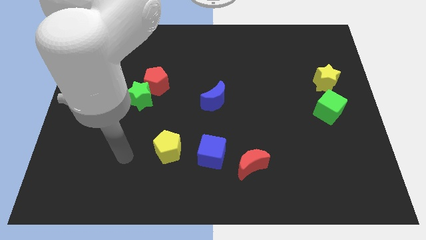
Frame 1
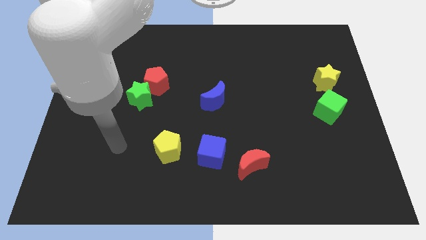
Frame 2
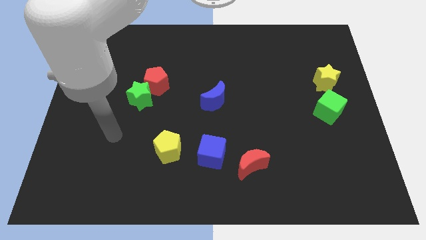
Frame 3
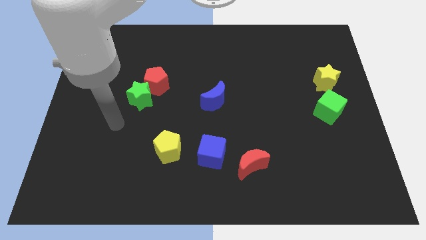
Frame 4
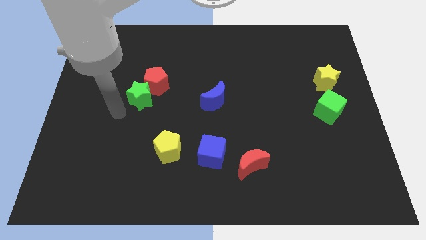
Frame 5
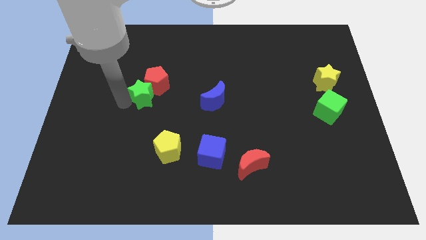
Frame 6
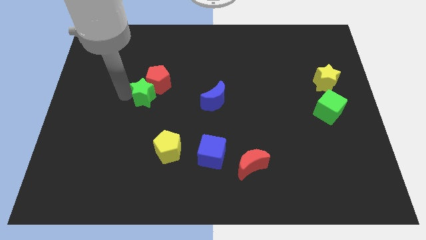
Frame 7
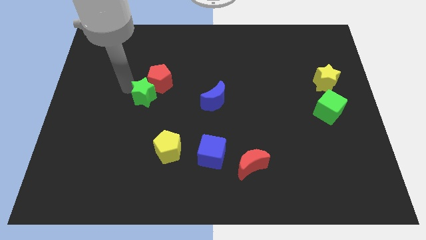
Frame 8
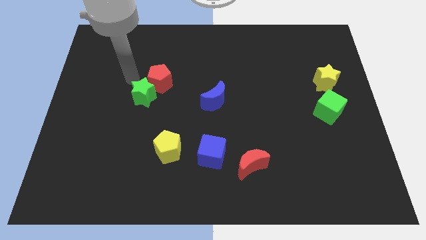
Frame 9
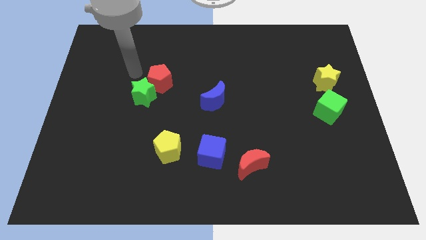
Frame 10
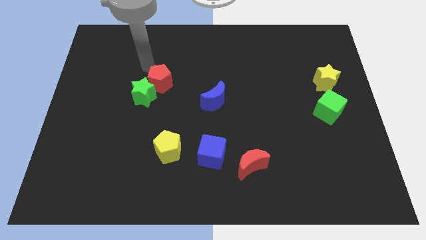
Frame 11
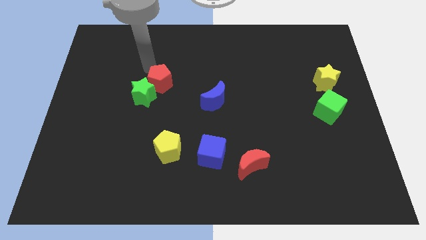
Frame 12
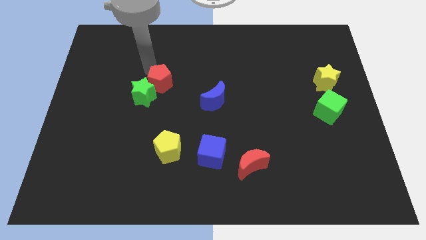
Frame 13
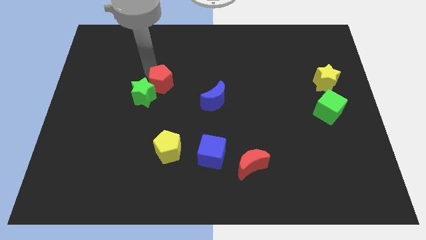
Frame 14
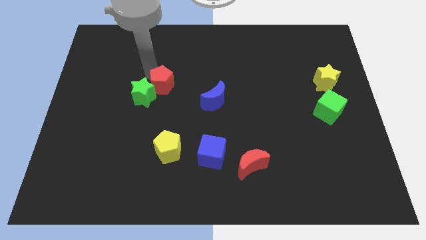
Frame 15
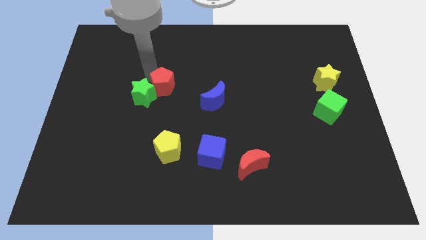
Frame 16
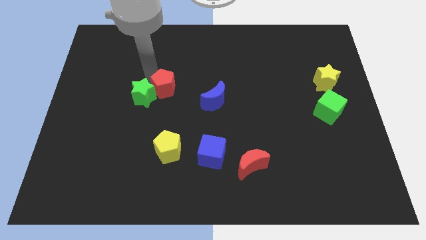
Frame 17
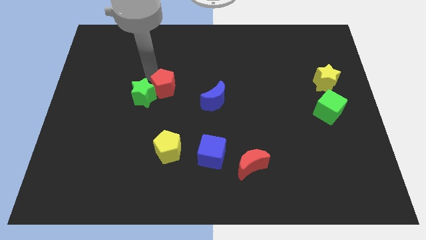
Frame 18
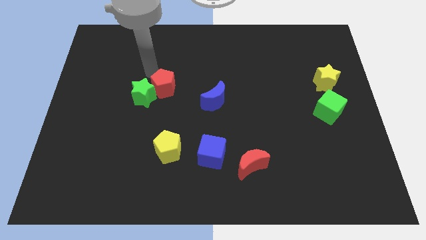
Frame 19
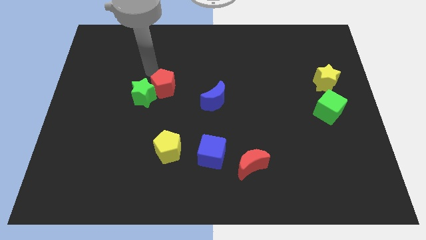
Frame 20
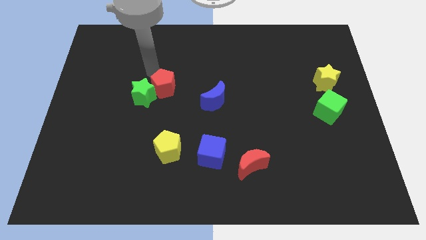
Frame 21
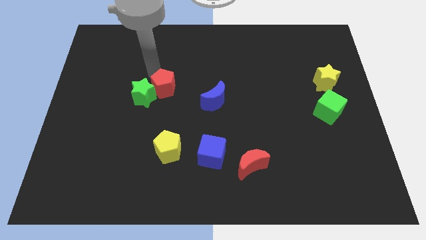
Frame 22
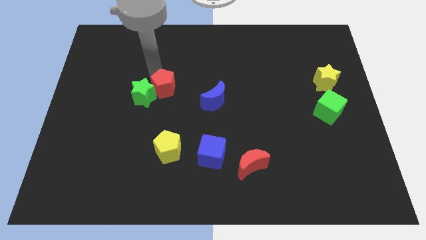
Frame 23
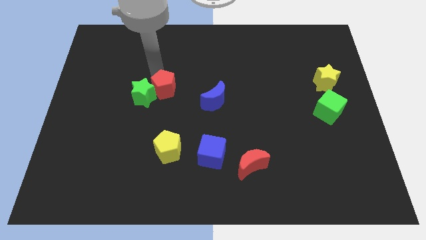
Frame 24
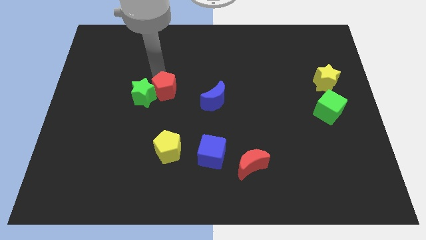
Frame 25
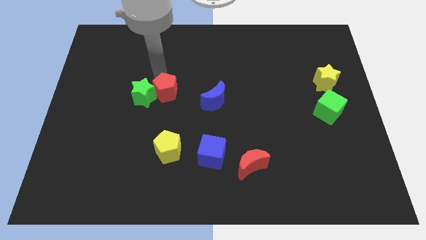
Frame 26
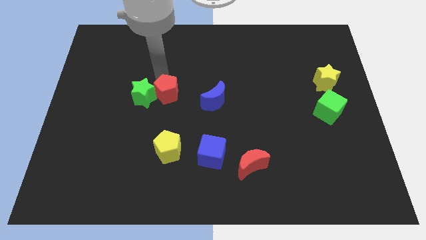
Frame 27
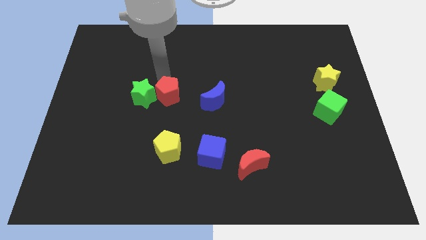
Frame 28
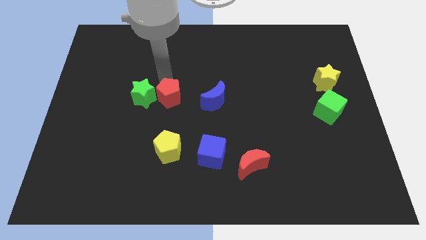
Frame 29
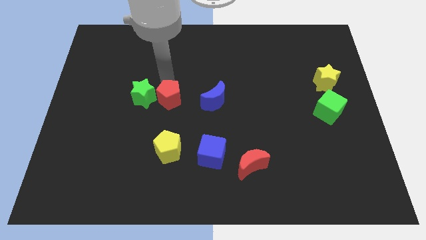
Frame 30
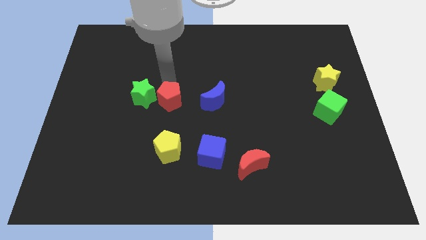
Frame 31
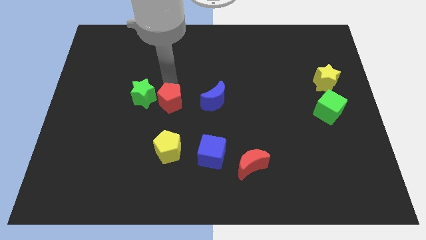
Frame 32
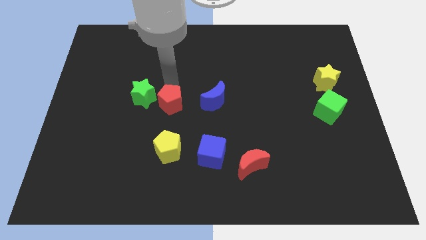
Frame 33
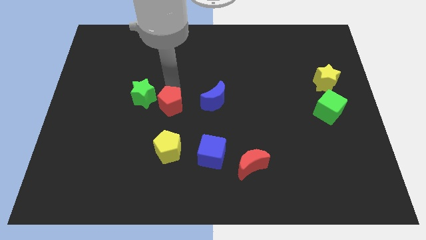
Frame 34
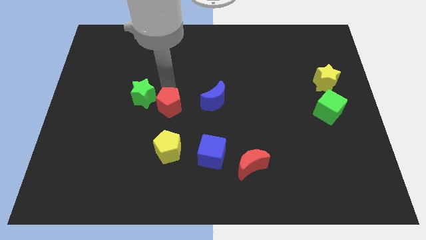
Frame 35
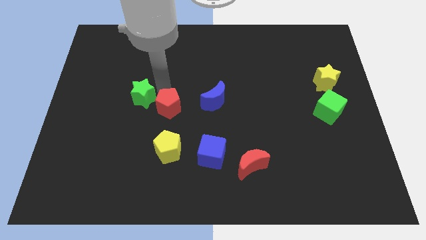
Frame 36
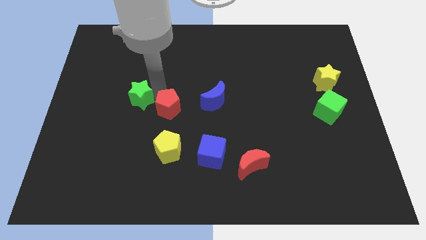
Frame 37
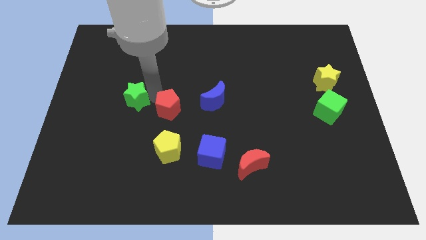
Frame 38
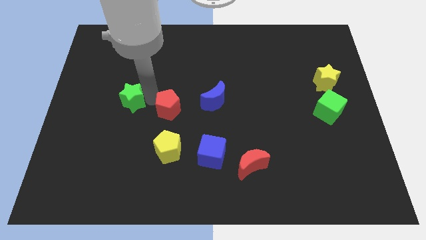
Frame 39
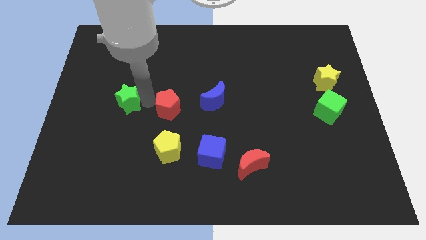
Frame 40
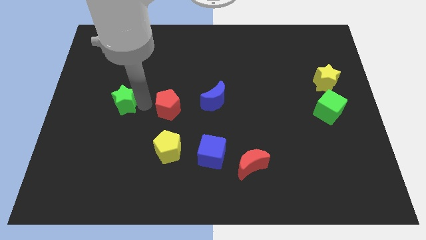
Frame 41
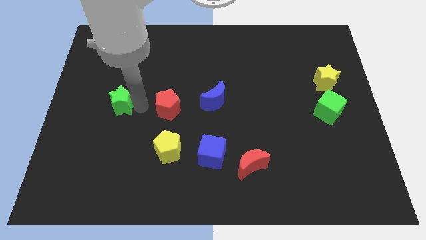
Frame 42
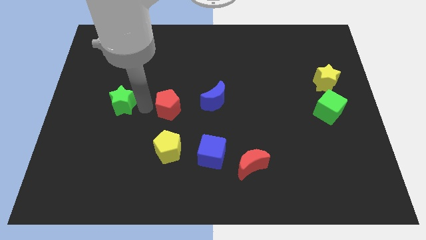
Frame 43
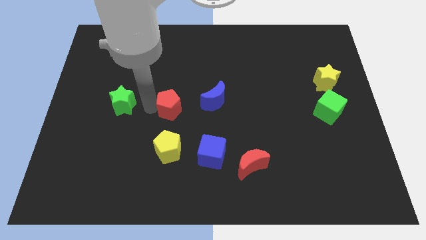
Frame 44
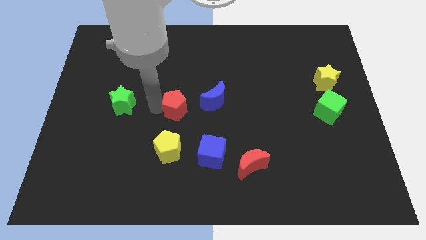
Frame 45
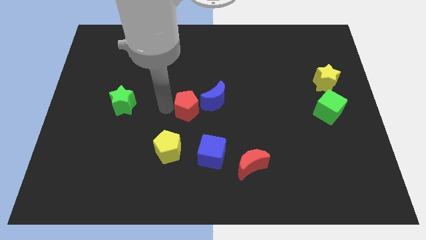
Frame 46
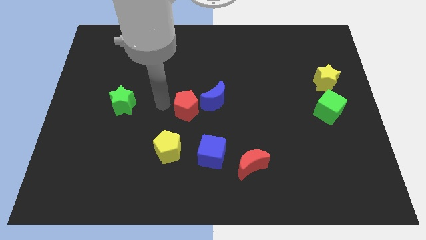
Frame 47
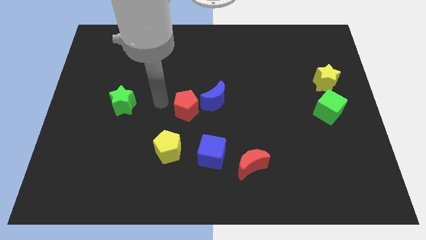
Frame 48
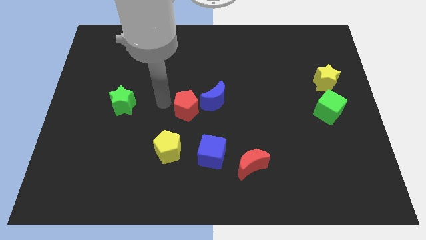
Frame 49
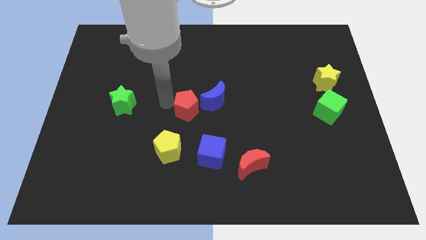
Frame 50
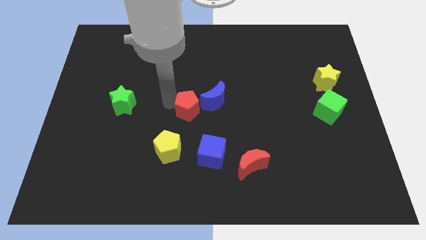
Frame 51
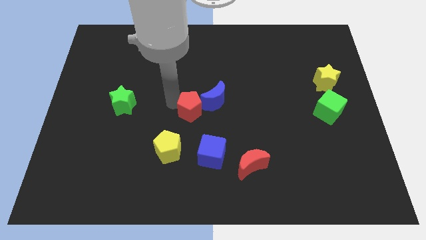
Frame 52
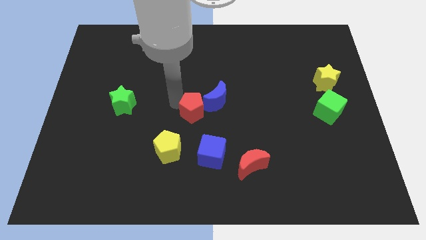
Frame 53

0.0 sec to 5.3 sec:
move the red pentagon above the blue cube

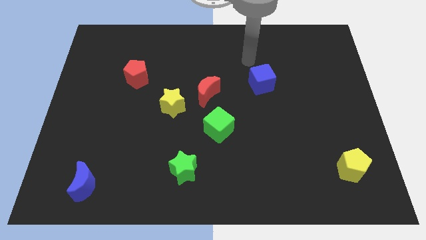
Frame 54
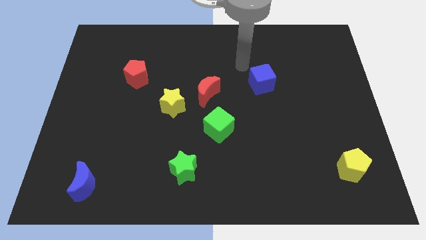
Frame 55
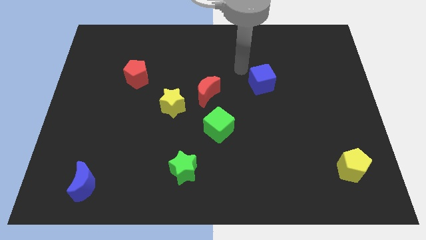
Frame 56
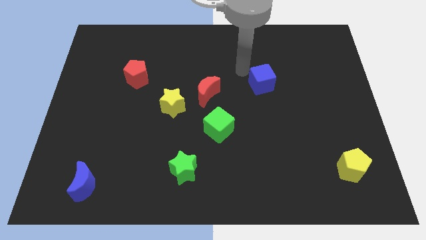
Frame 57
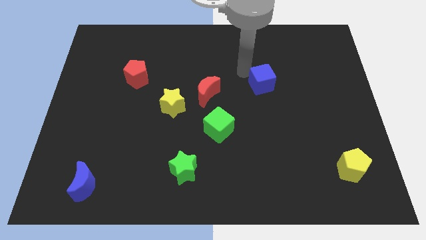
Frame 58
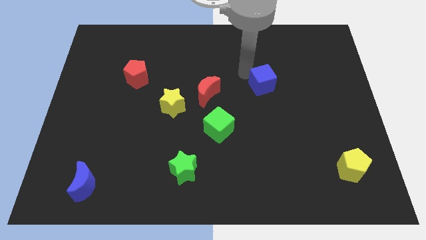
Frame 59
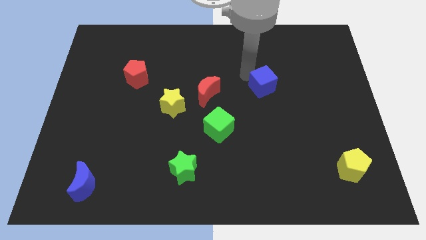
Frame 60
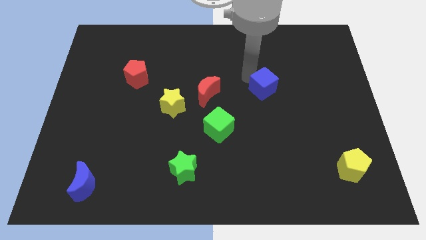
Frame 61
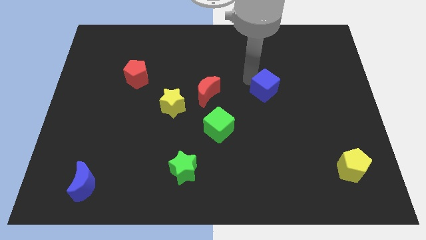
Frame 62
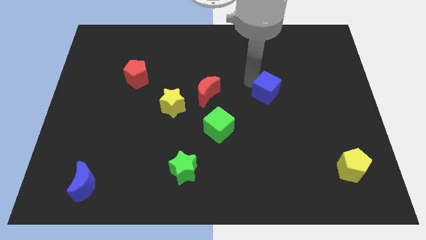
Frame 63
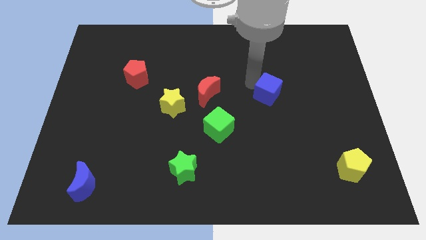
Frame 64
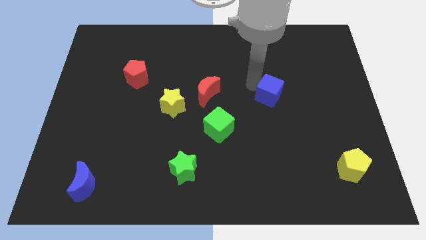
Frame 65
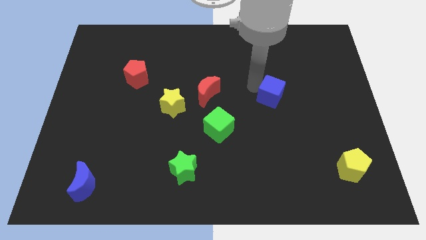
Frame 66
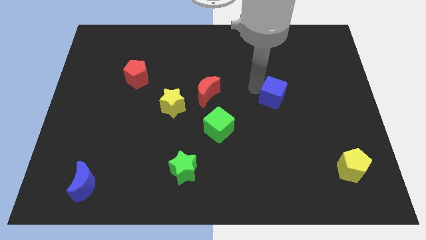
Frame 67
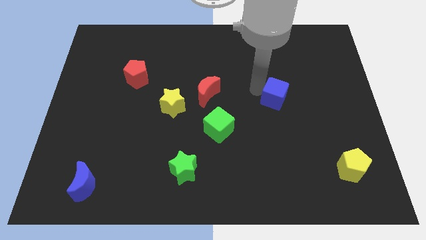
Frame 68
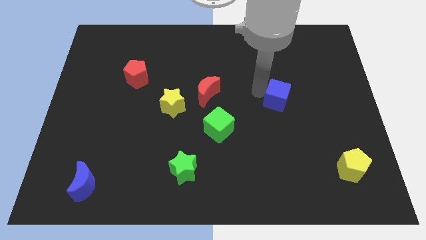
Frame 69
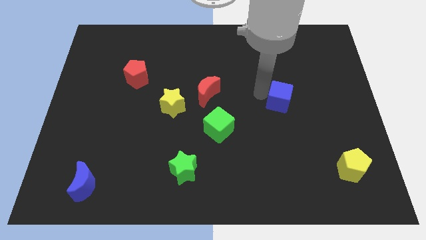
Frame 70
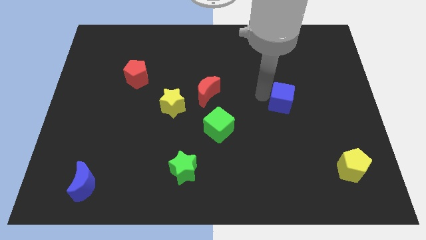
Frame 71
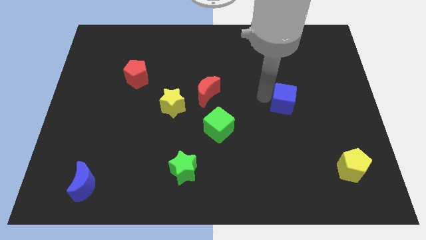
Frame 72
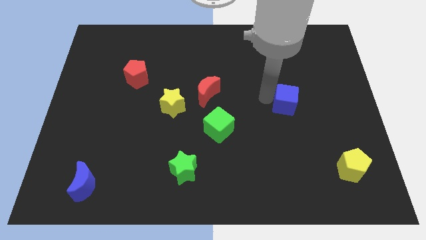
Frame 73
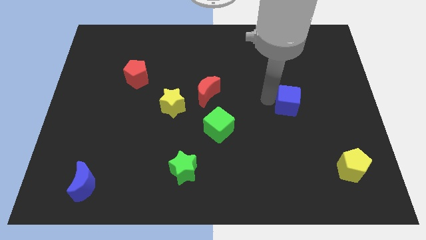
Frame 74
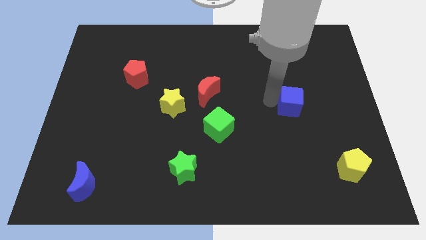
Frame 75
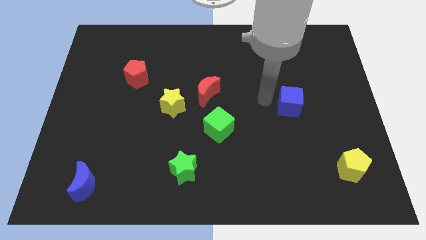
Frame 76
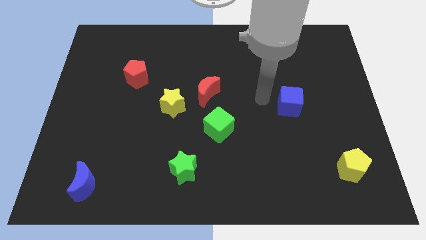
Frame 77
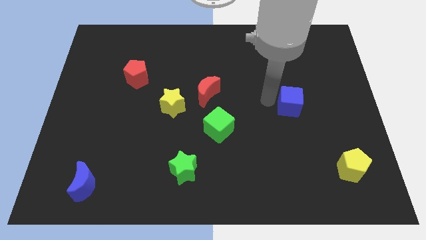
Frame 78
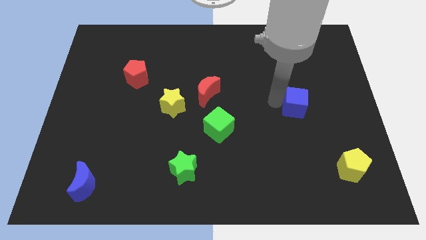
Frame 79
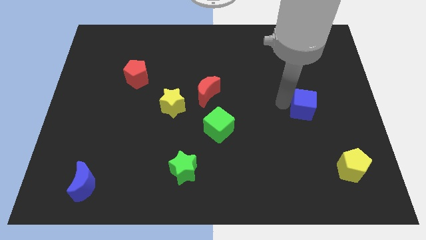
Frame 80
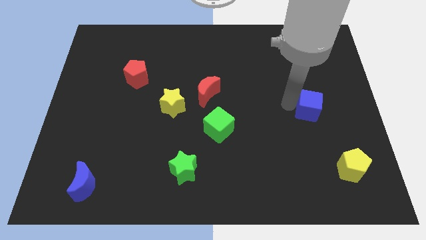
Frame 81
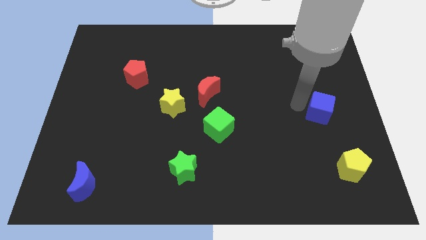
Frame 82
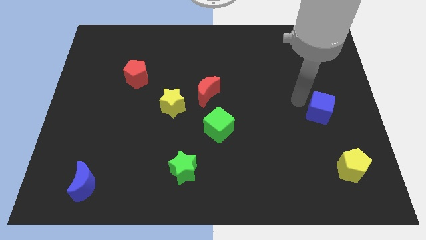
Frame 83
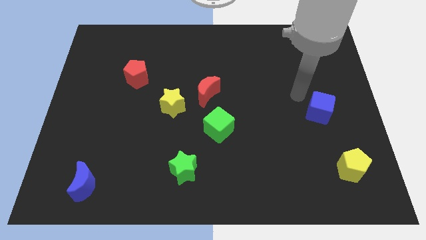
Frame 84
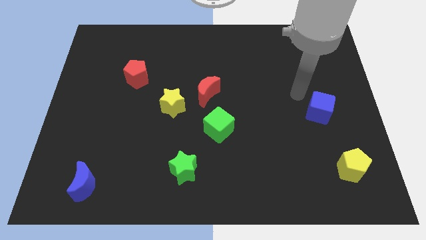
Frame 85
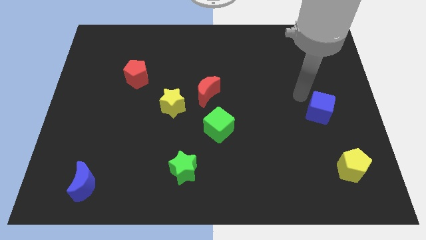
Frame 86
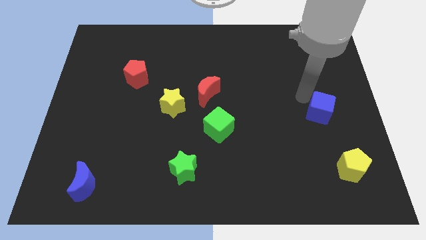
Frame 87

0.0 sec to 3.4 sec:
push the blue cube to the top of the yellow pentagon
